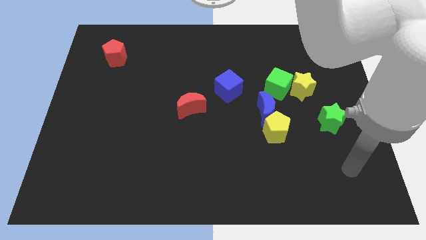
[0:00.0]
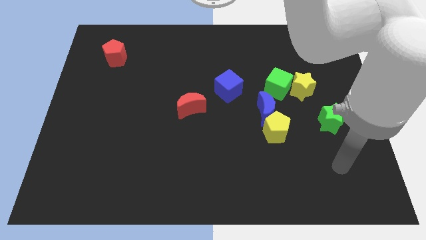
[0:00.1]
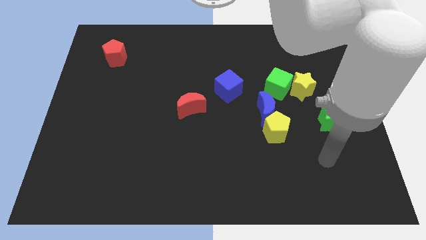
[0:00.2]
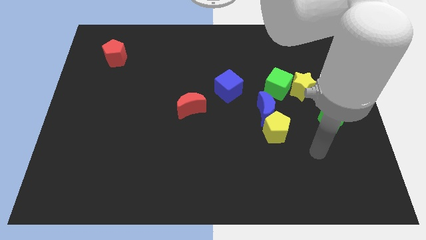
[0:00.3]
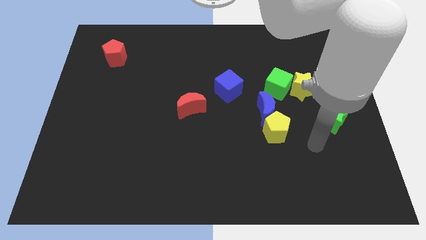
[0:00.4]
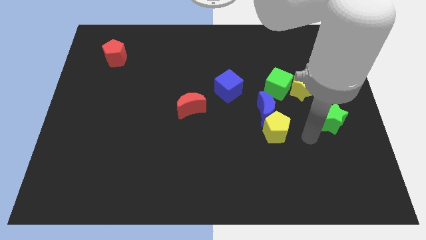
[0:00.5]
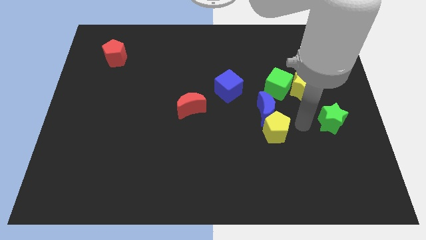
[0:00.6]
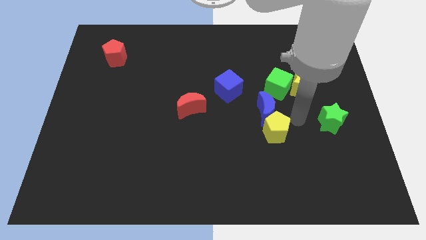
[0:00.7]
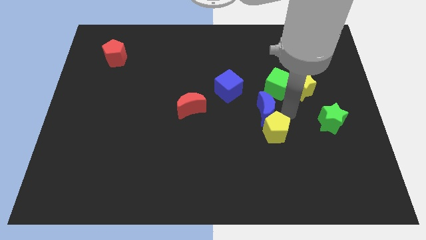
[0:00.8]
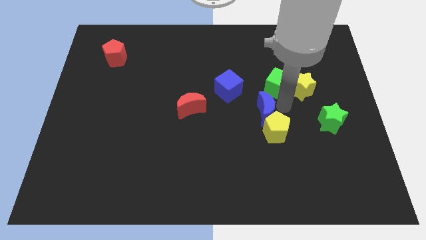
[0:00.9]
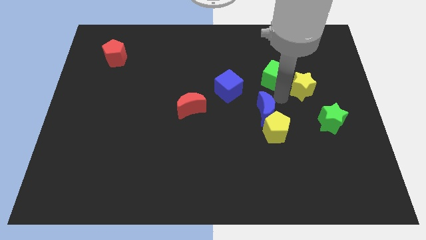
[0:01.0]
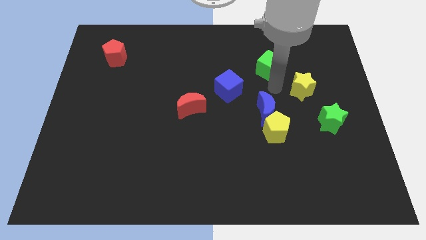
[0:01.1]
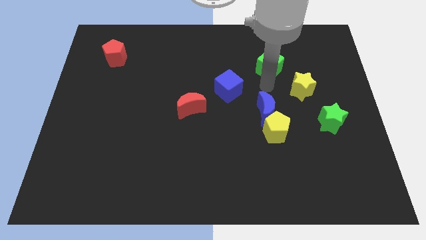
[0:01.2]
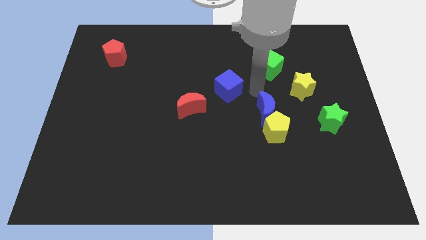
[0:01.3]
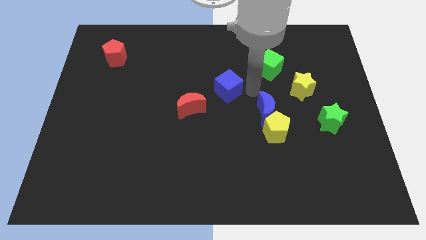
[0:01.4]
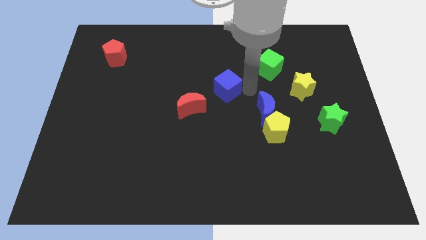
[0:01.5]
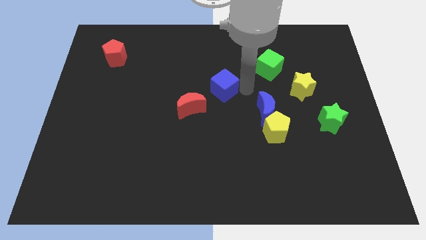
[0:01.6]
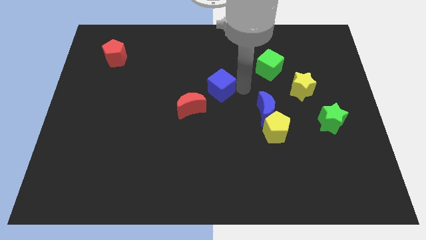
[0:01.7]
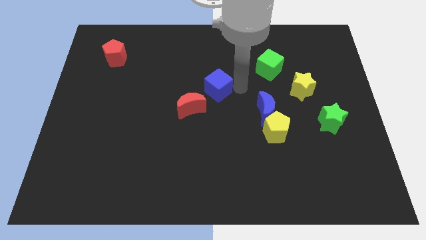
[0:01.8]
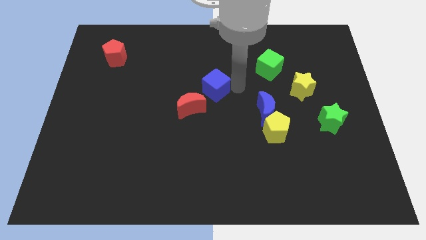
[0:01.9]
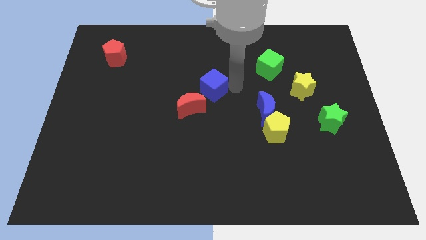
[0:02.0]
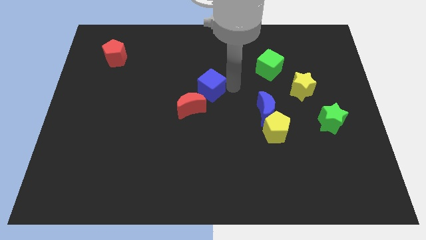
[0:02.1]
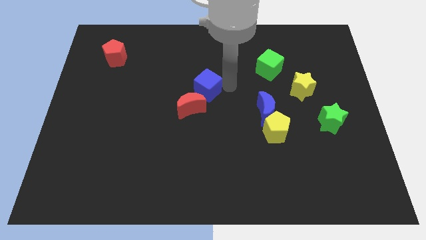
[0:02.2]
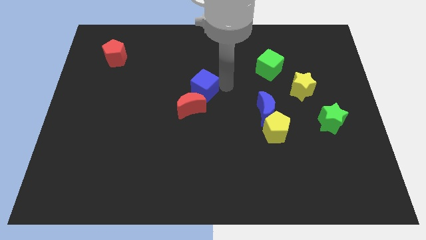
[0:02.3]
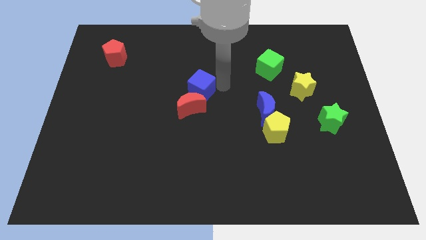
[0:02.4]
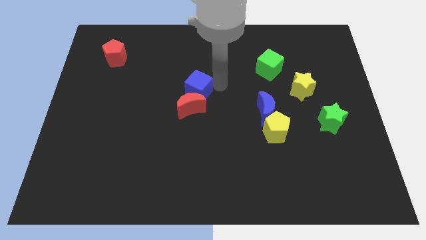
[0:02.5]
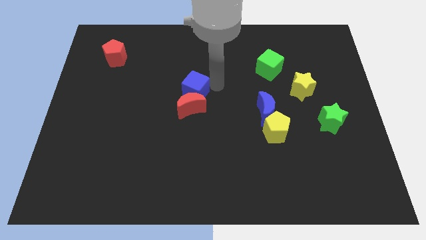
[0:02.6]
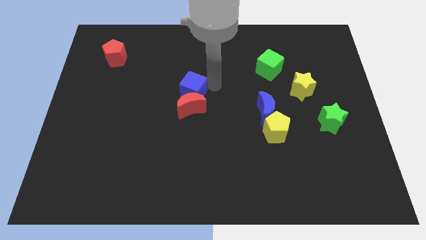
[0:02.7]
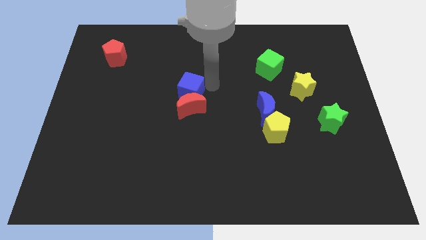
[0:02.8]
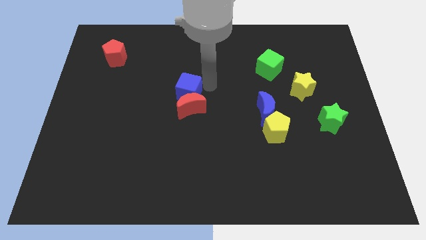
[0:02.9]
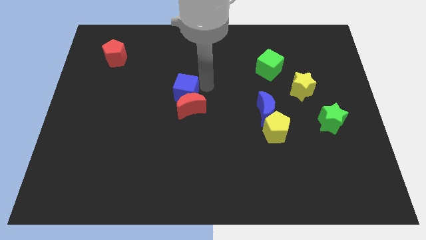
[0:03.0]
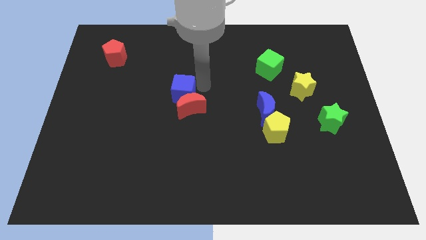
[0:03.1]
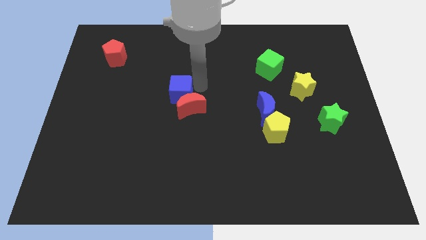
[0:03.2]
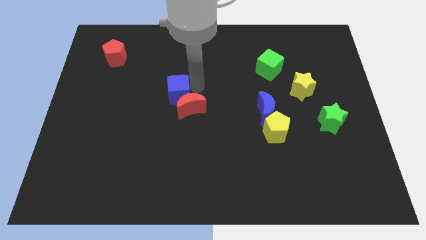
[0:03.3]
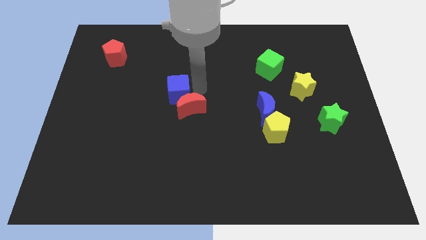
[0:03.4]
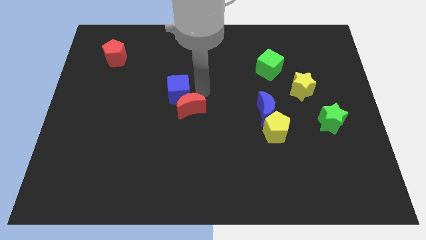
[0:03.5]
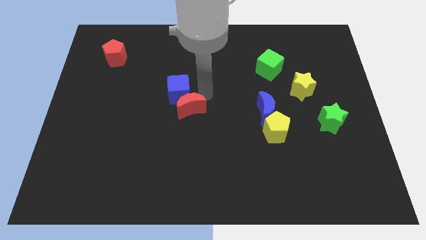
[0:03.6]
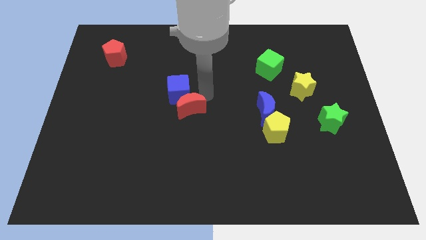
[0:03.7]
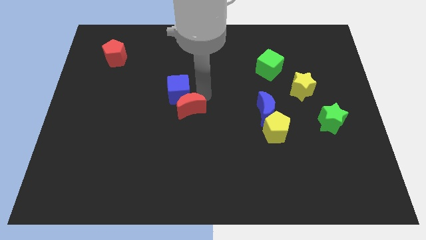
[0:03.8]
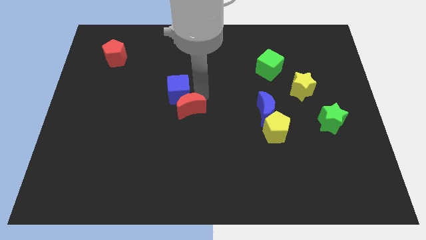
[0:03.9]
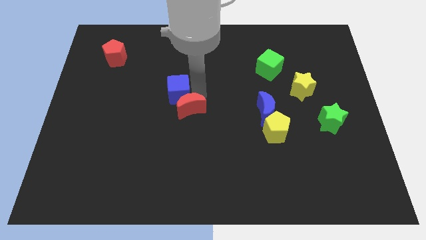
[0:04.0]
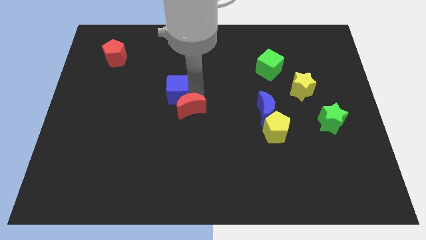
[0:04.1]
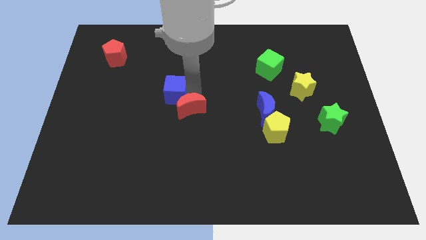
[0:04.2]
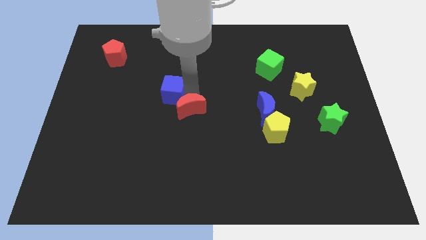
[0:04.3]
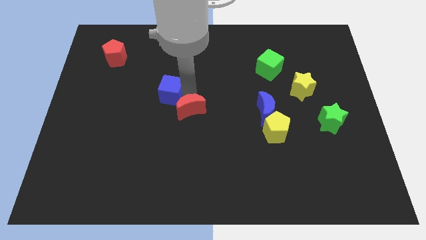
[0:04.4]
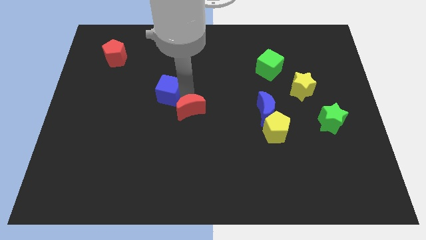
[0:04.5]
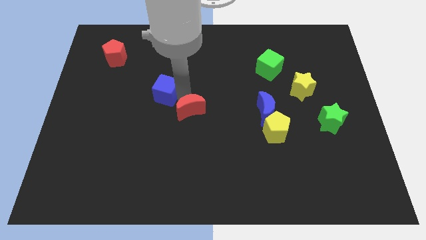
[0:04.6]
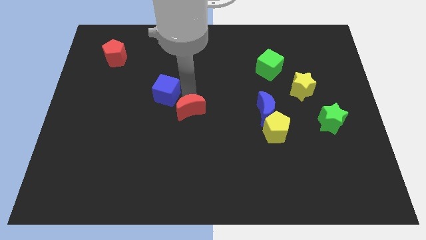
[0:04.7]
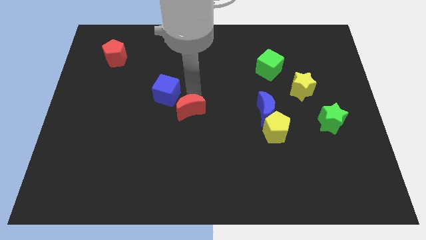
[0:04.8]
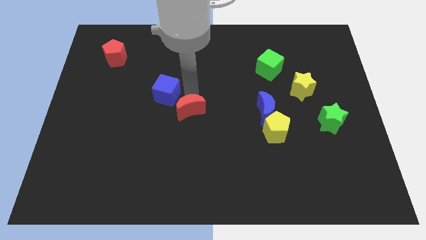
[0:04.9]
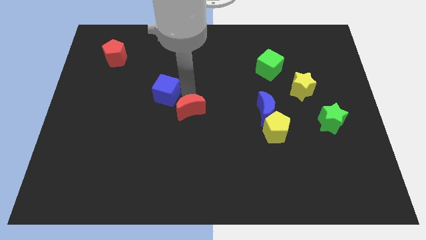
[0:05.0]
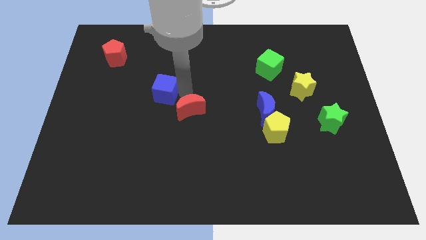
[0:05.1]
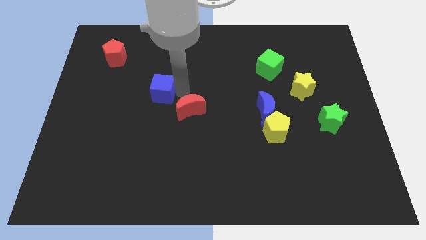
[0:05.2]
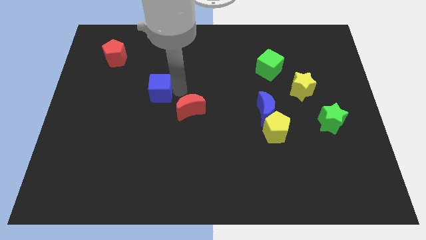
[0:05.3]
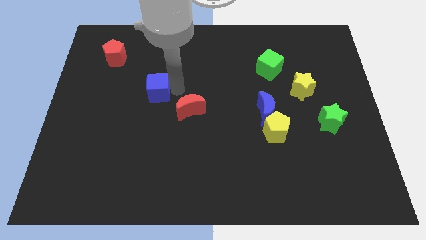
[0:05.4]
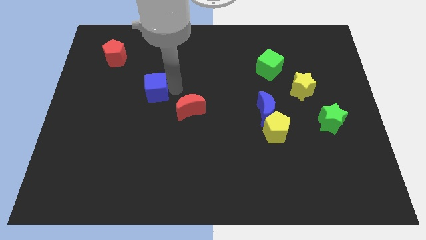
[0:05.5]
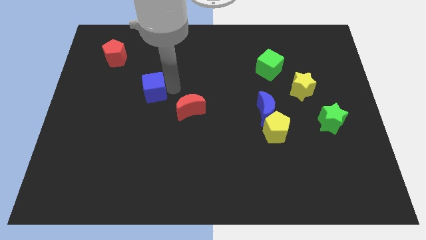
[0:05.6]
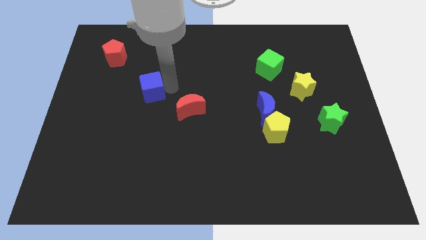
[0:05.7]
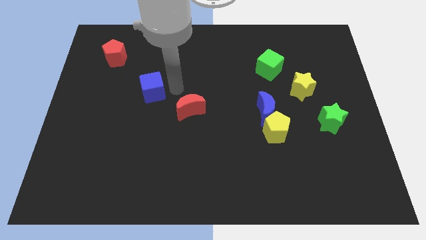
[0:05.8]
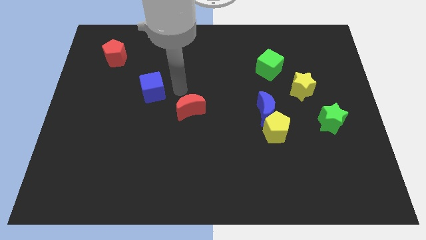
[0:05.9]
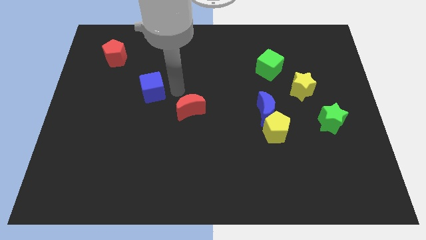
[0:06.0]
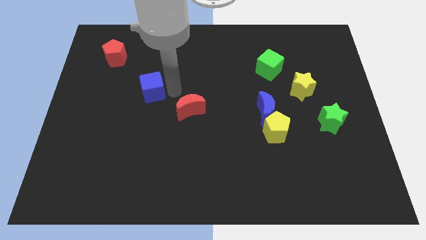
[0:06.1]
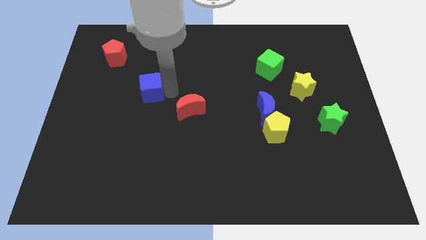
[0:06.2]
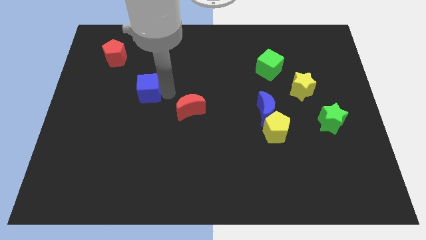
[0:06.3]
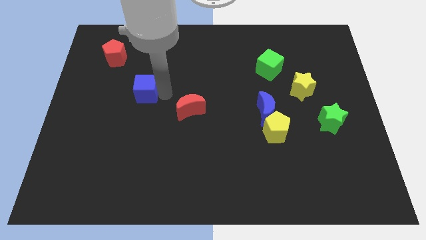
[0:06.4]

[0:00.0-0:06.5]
move the blue cube left

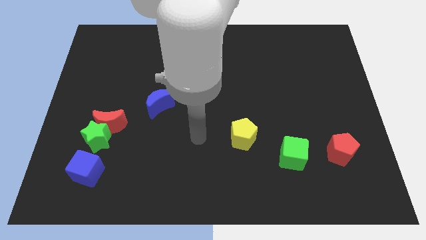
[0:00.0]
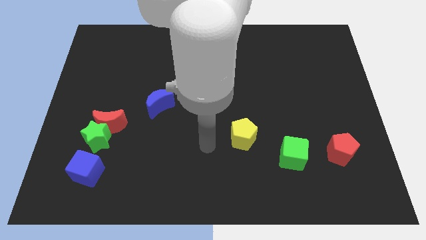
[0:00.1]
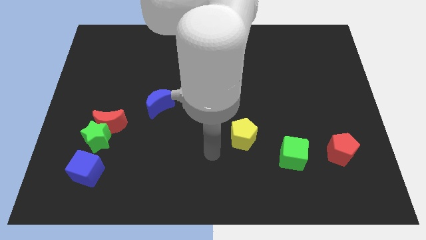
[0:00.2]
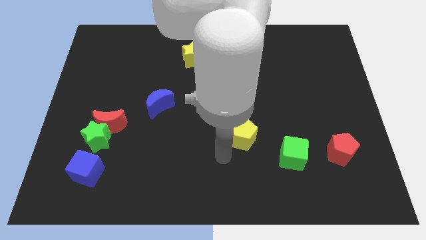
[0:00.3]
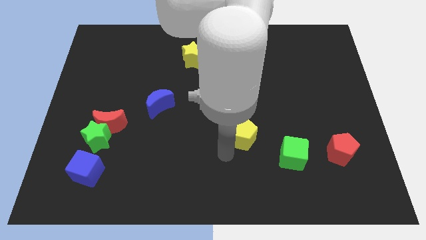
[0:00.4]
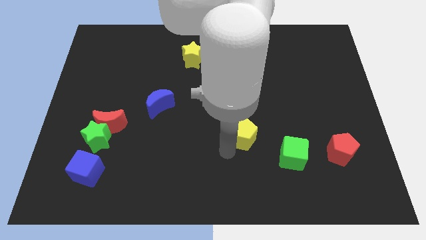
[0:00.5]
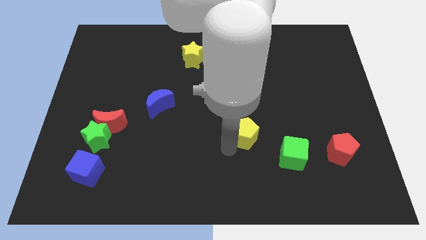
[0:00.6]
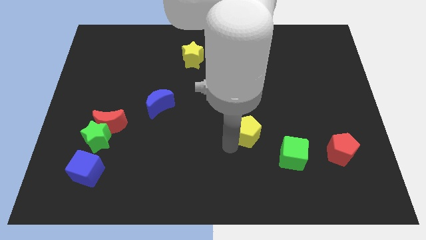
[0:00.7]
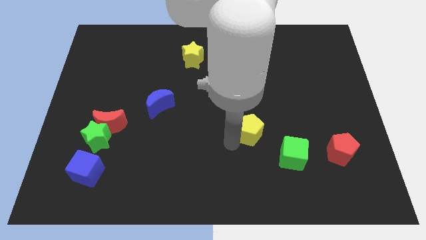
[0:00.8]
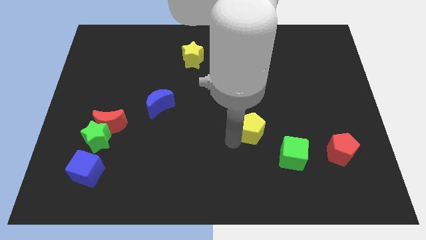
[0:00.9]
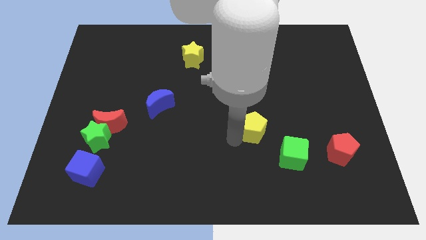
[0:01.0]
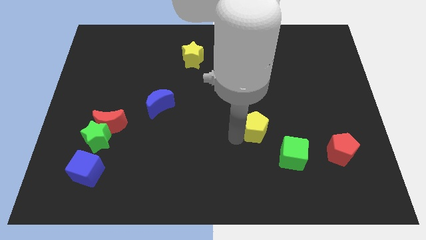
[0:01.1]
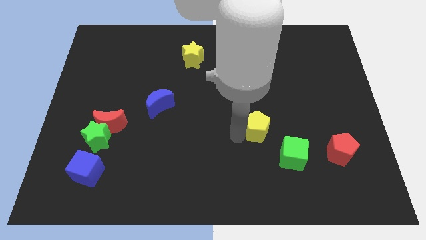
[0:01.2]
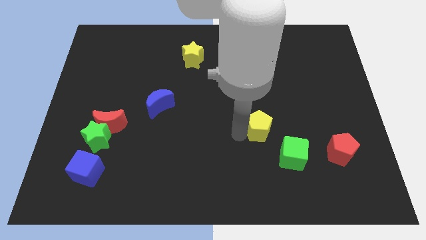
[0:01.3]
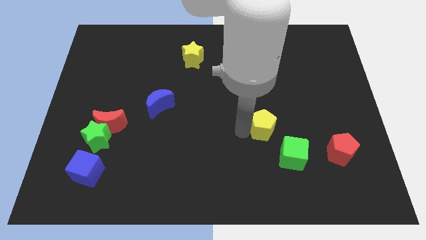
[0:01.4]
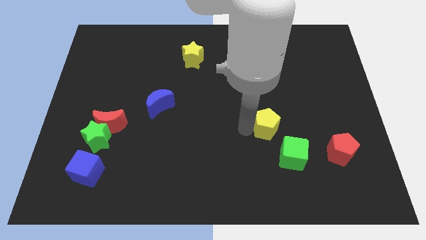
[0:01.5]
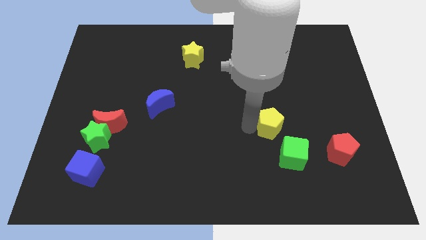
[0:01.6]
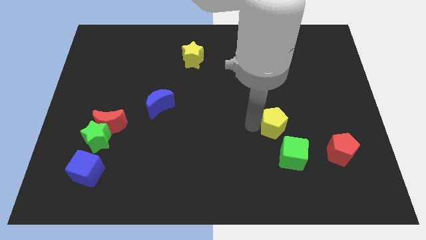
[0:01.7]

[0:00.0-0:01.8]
slide the yellow pentagon slightly up and then right
